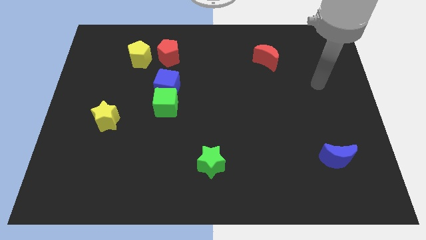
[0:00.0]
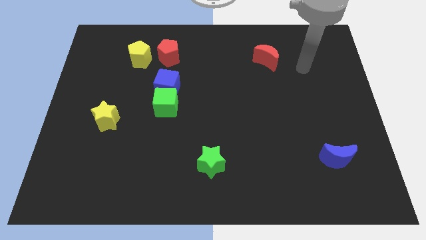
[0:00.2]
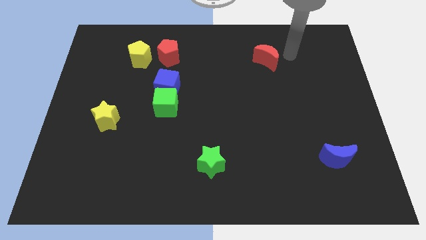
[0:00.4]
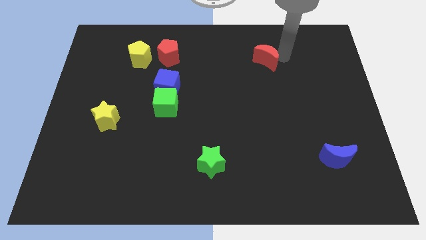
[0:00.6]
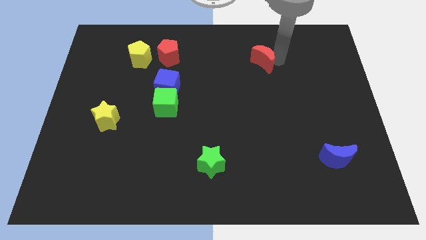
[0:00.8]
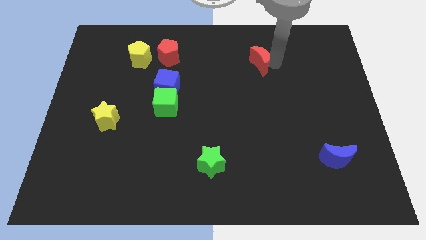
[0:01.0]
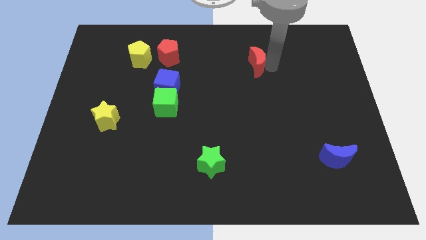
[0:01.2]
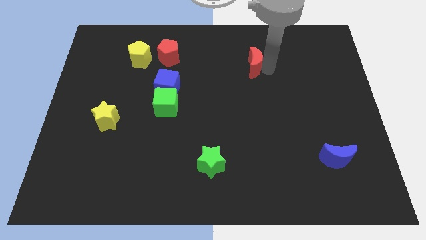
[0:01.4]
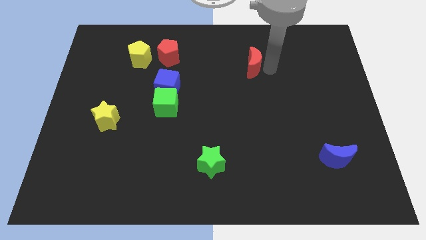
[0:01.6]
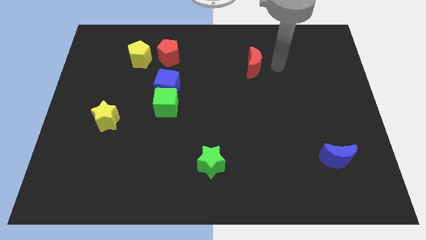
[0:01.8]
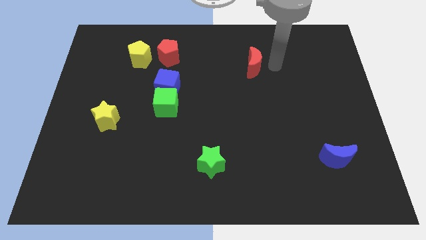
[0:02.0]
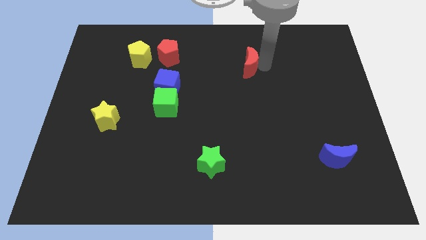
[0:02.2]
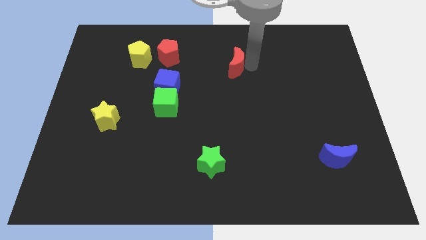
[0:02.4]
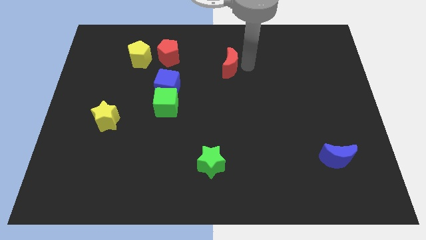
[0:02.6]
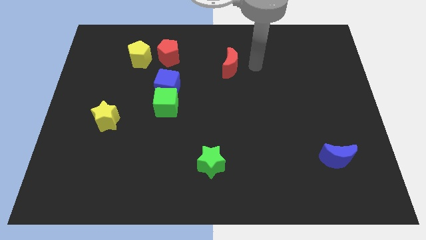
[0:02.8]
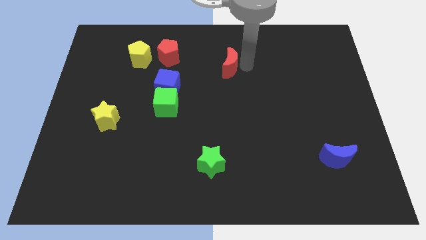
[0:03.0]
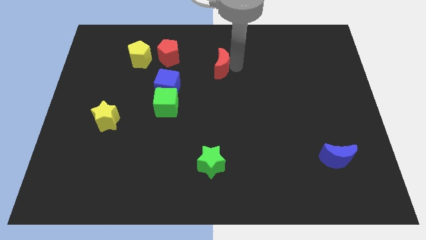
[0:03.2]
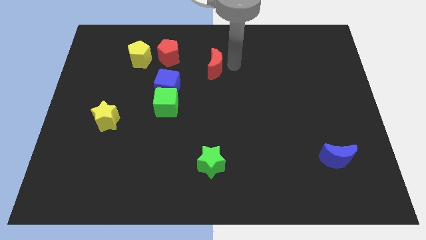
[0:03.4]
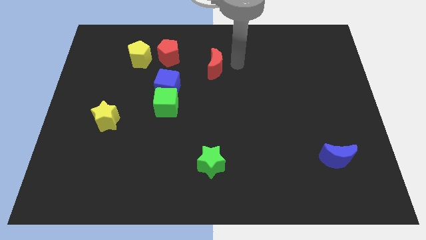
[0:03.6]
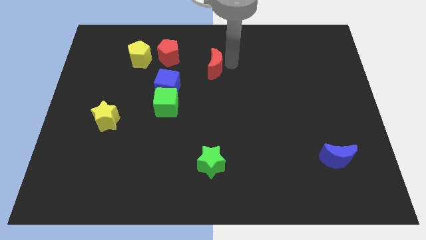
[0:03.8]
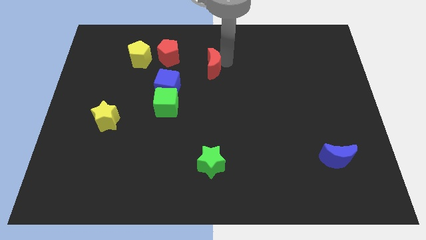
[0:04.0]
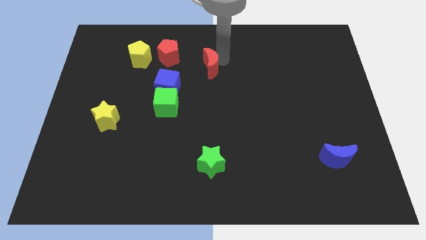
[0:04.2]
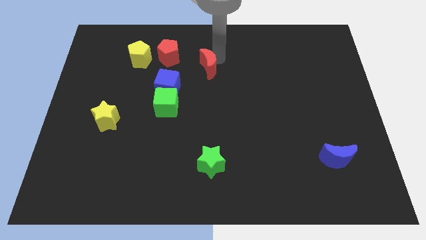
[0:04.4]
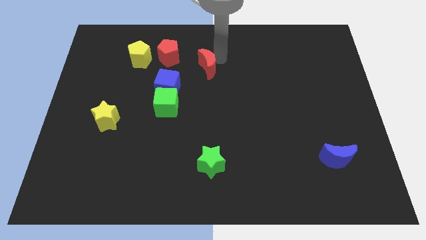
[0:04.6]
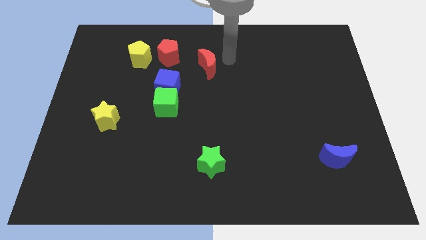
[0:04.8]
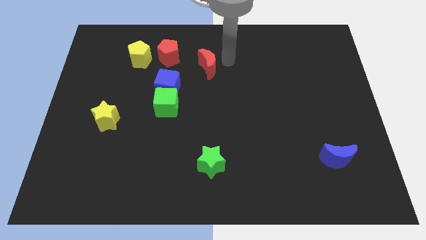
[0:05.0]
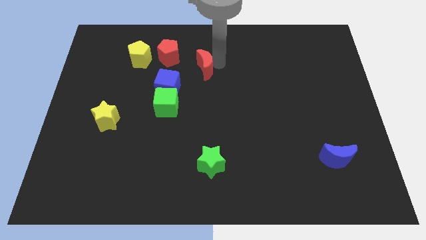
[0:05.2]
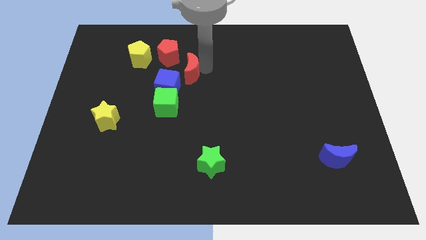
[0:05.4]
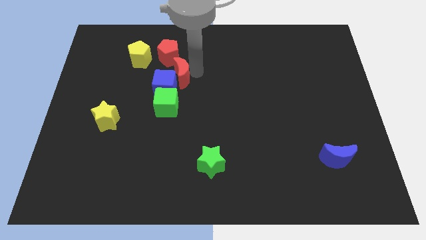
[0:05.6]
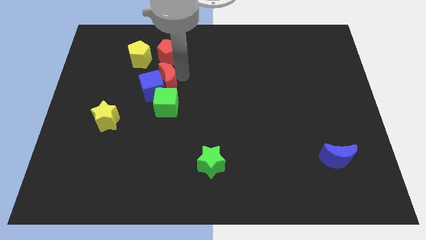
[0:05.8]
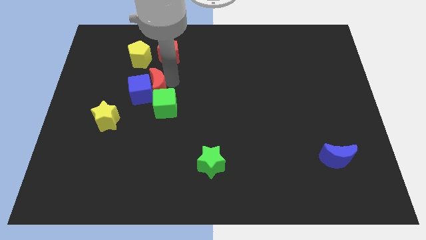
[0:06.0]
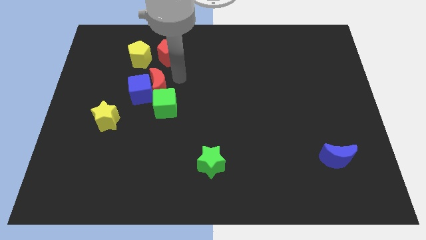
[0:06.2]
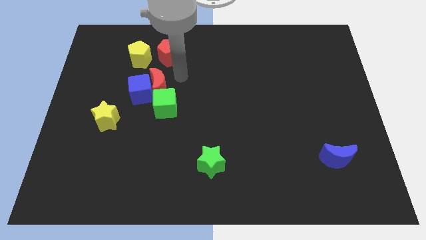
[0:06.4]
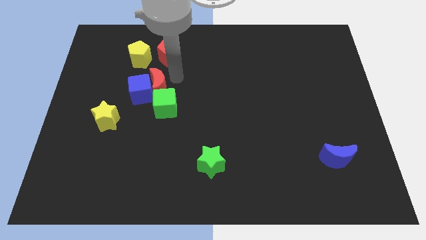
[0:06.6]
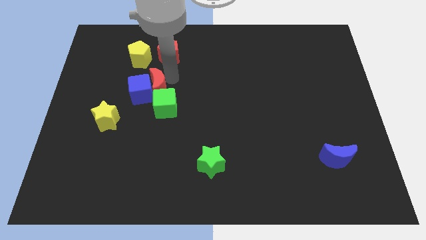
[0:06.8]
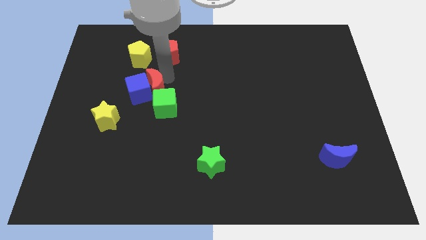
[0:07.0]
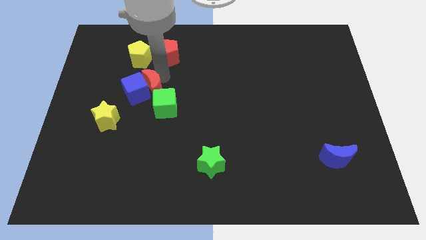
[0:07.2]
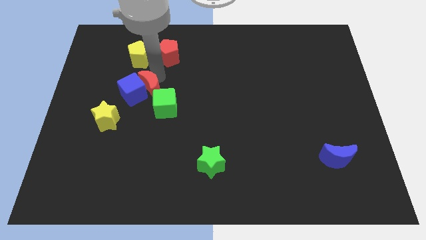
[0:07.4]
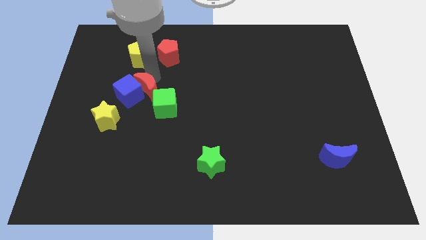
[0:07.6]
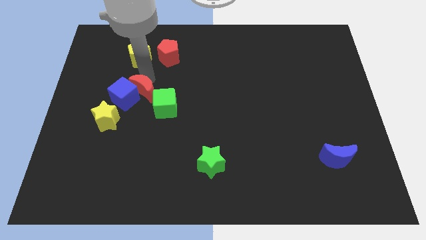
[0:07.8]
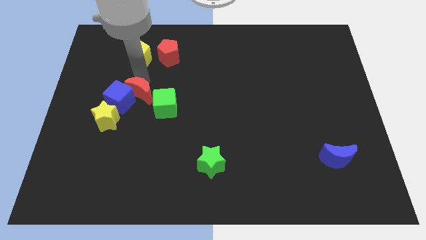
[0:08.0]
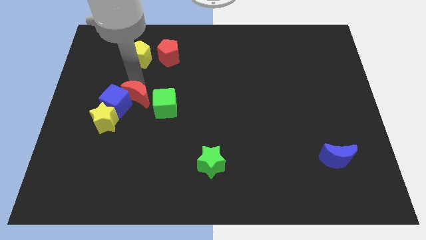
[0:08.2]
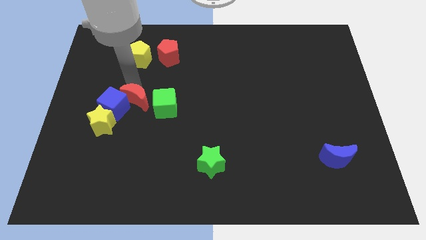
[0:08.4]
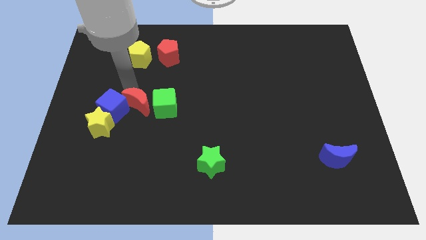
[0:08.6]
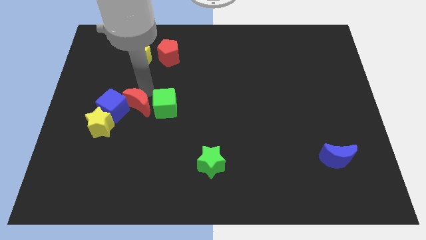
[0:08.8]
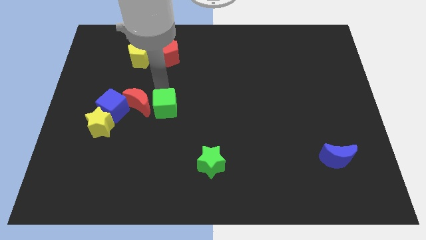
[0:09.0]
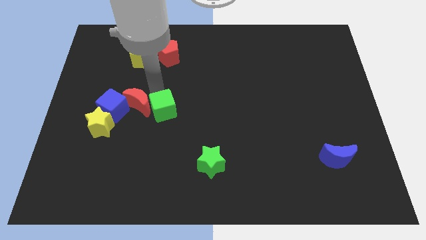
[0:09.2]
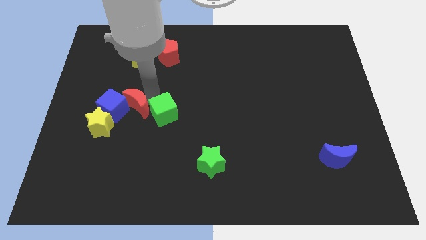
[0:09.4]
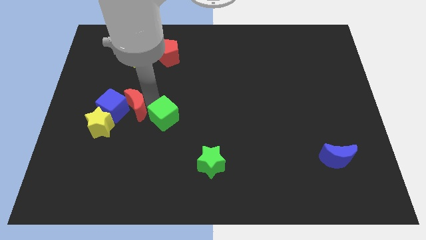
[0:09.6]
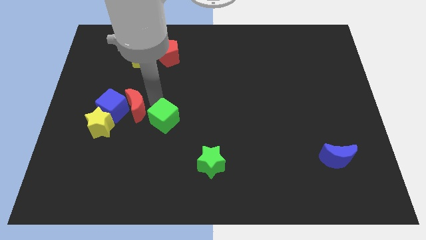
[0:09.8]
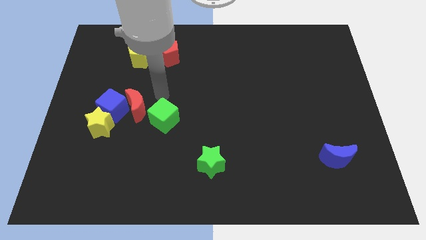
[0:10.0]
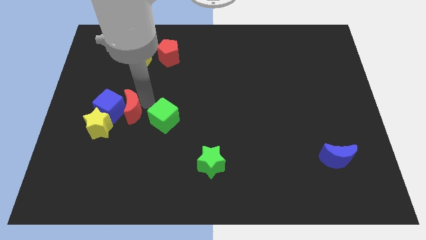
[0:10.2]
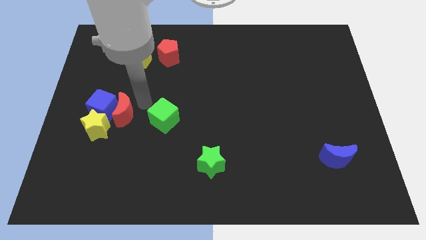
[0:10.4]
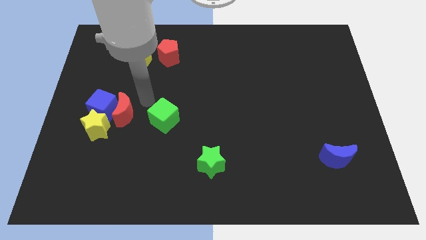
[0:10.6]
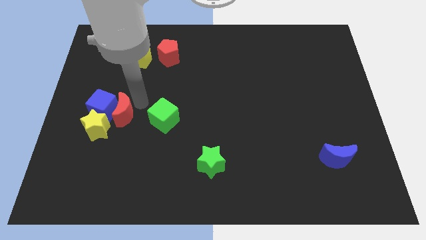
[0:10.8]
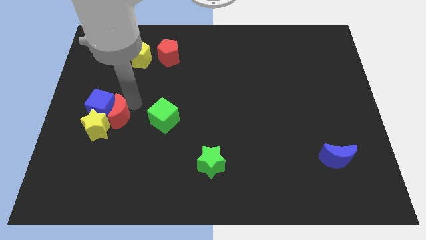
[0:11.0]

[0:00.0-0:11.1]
move the red moon towards the yellow star

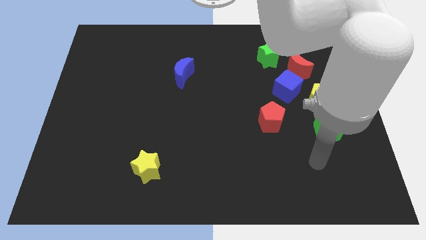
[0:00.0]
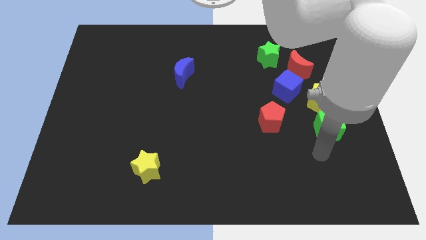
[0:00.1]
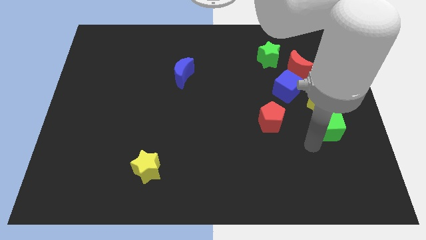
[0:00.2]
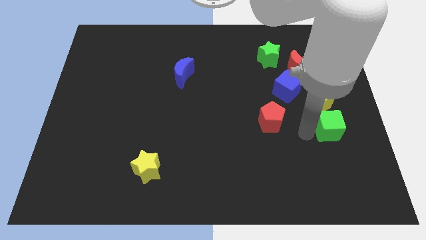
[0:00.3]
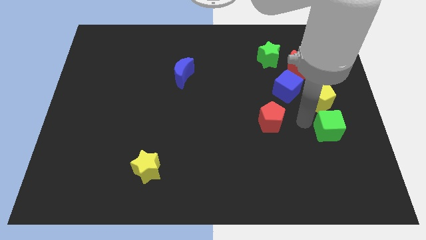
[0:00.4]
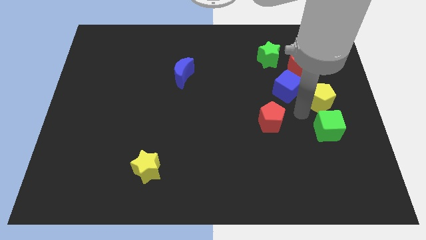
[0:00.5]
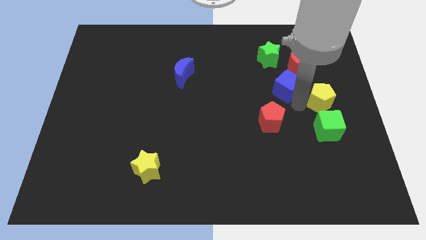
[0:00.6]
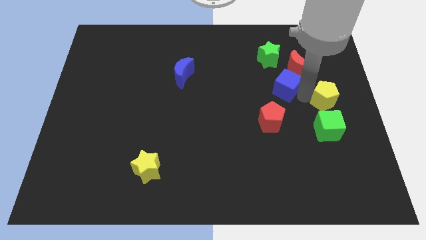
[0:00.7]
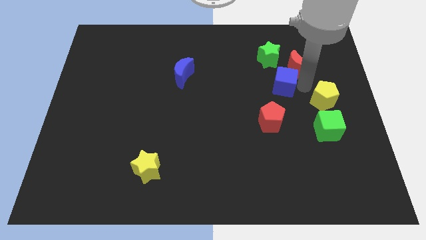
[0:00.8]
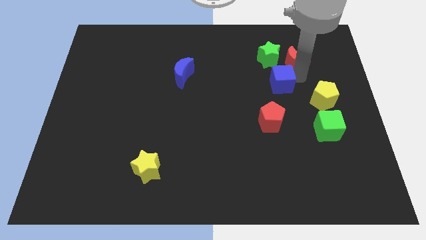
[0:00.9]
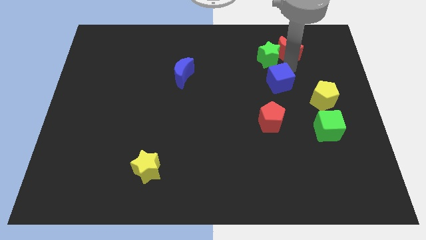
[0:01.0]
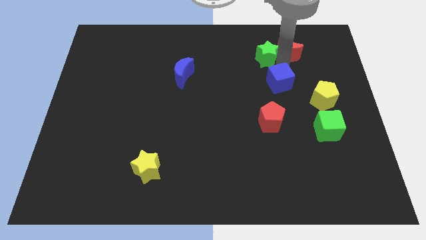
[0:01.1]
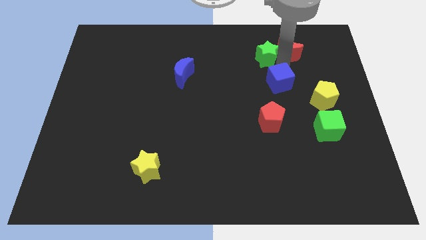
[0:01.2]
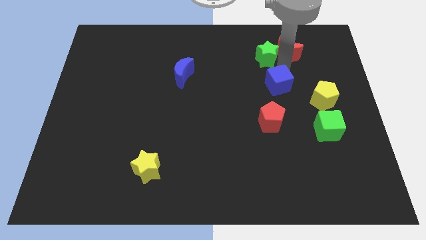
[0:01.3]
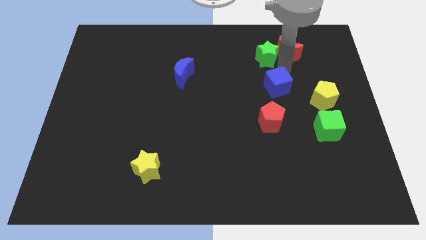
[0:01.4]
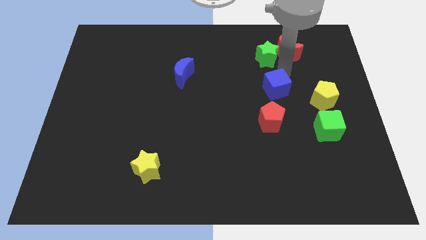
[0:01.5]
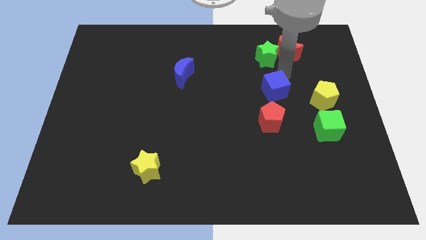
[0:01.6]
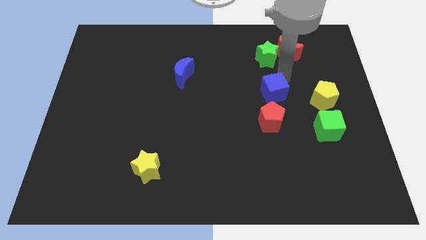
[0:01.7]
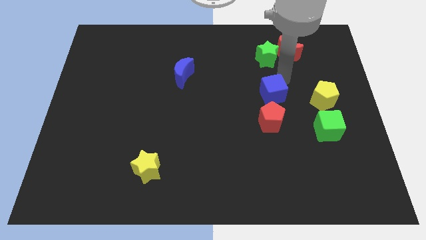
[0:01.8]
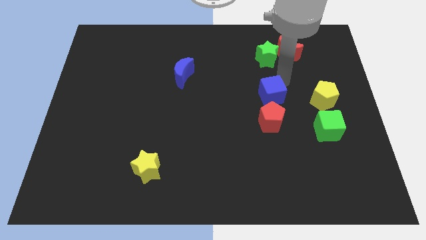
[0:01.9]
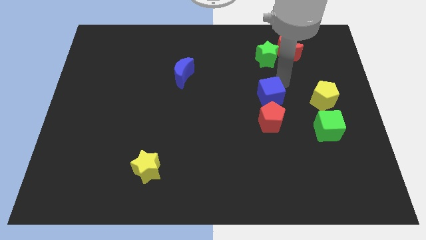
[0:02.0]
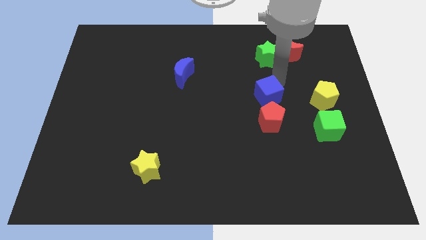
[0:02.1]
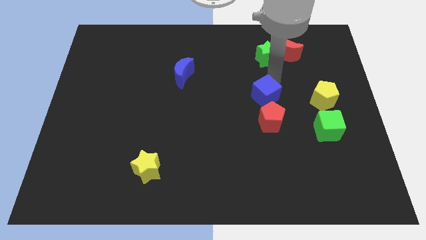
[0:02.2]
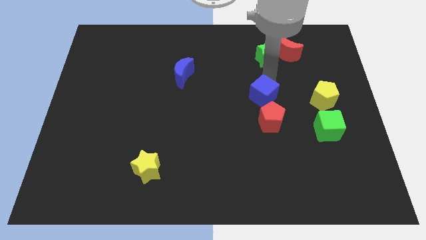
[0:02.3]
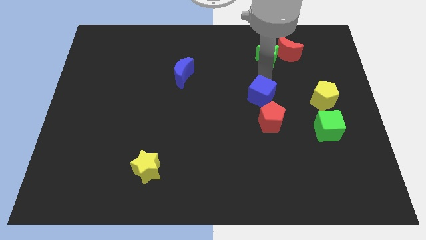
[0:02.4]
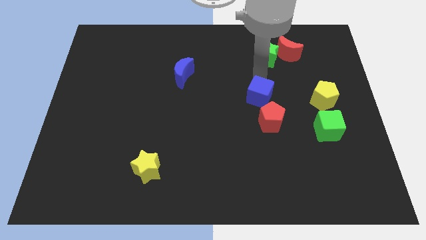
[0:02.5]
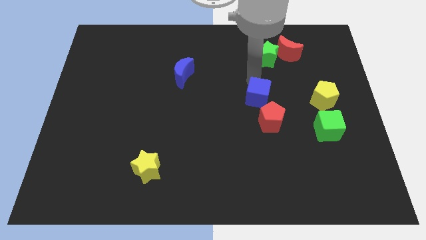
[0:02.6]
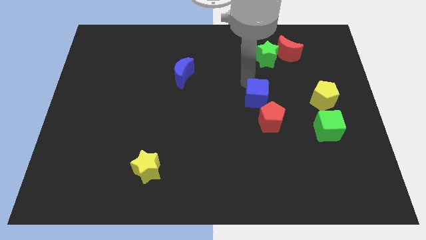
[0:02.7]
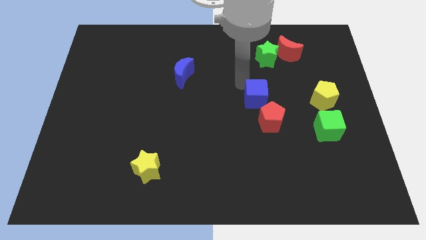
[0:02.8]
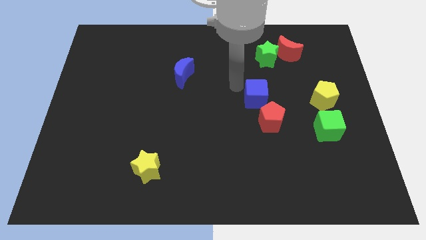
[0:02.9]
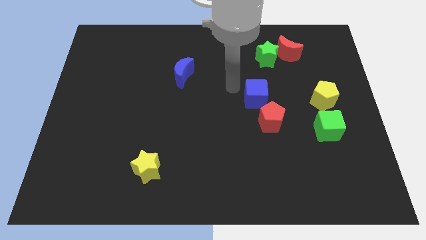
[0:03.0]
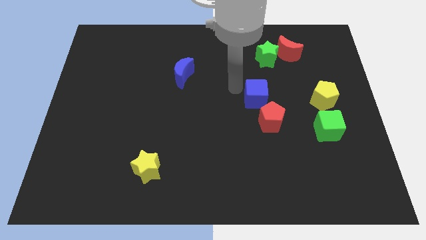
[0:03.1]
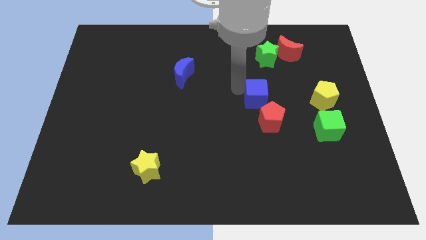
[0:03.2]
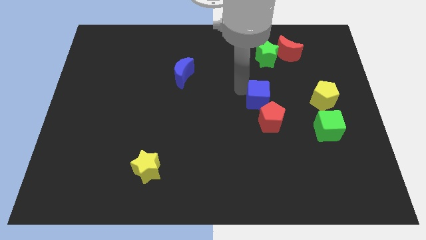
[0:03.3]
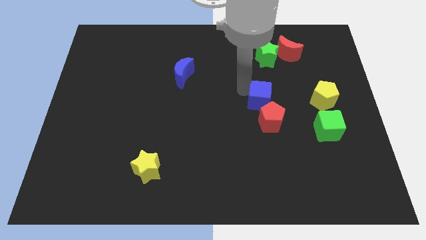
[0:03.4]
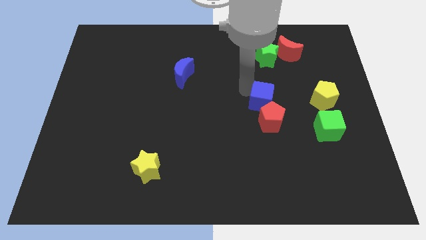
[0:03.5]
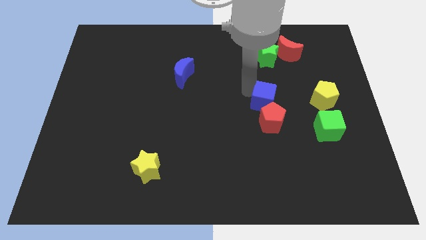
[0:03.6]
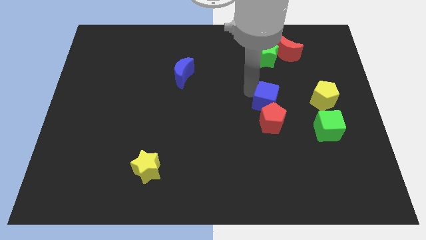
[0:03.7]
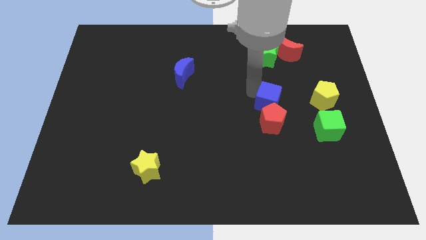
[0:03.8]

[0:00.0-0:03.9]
slide the blue cube close to the red pentagon
